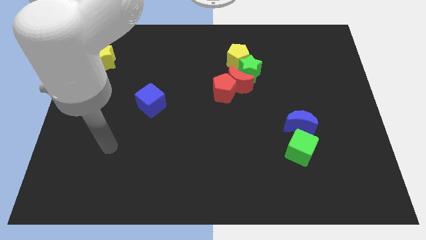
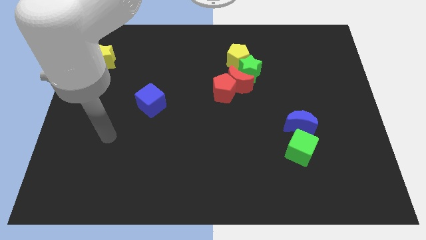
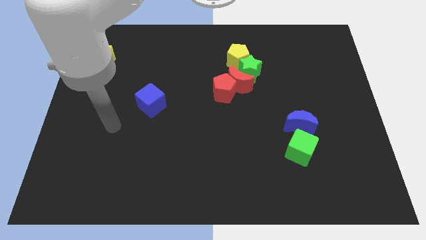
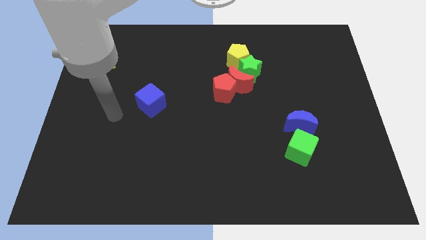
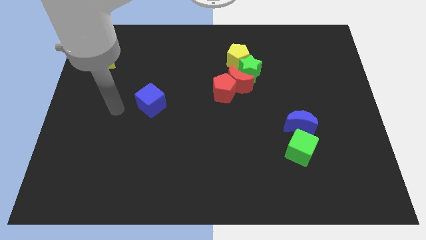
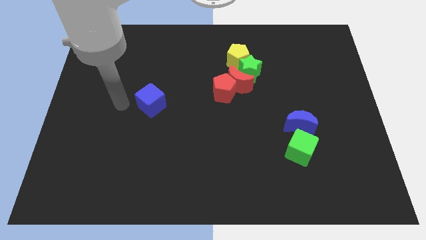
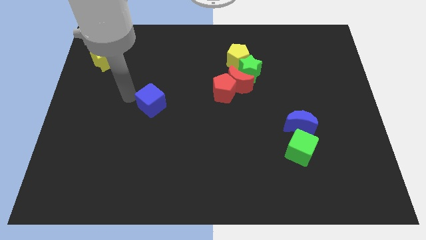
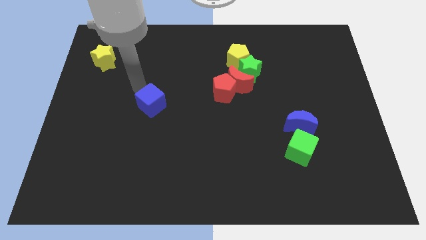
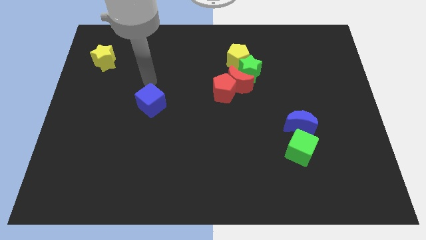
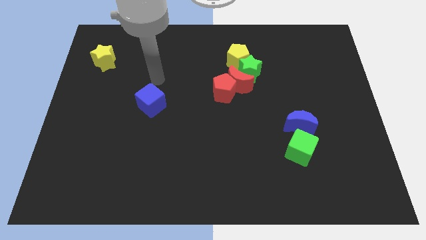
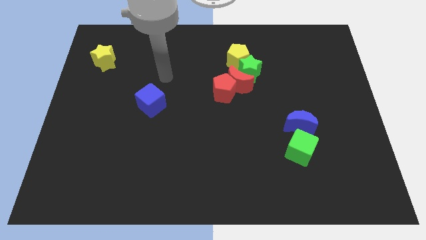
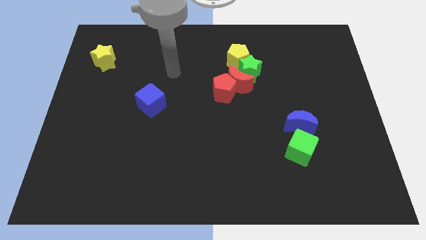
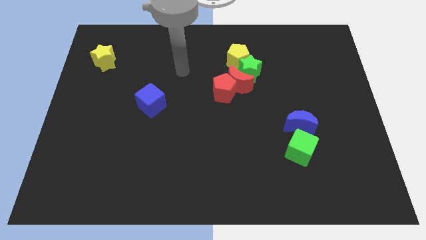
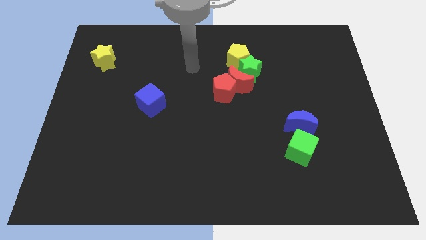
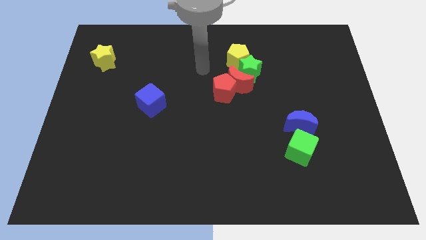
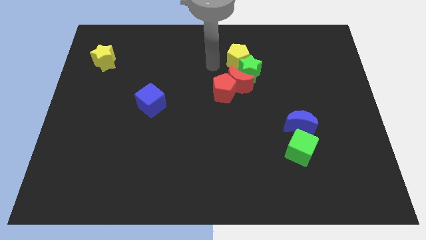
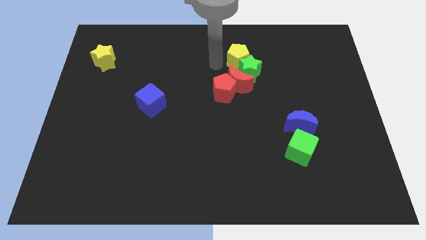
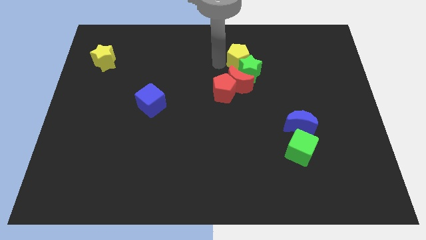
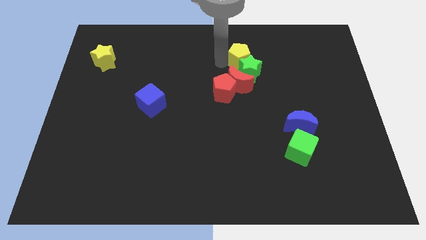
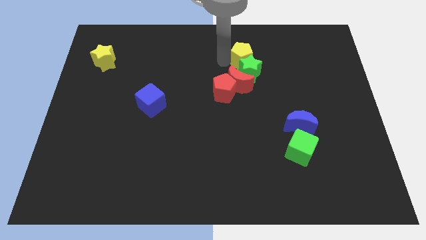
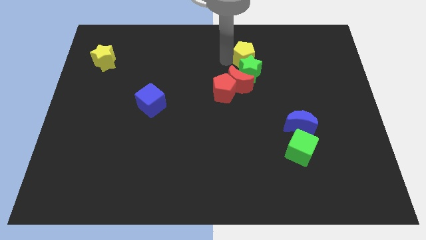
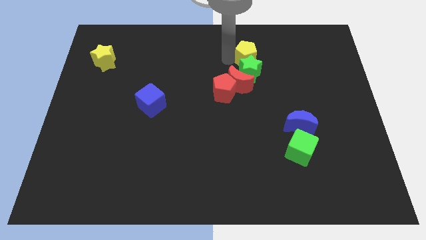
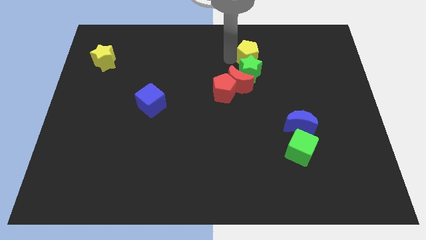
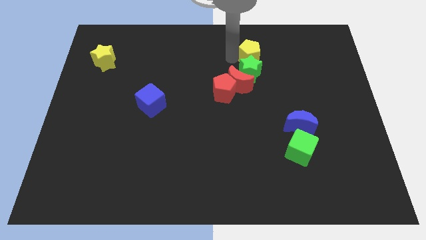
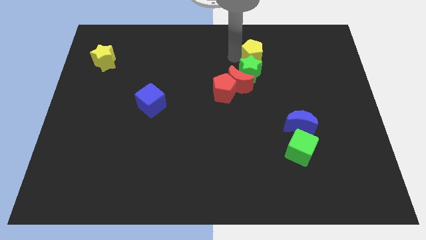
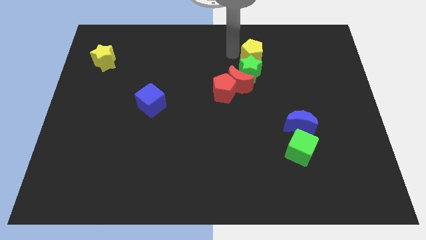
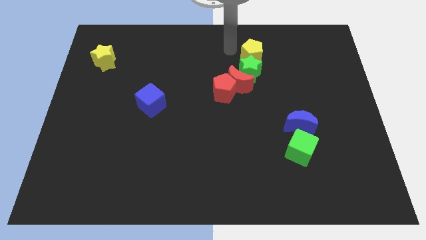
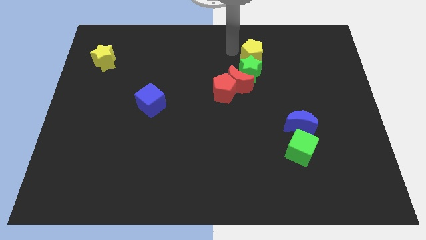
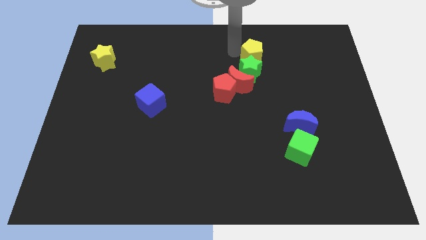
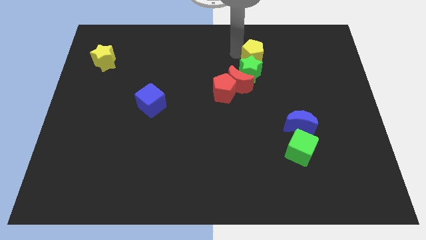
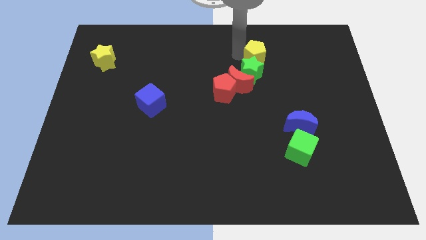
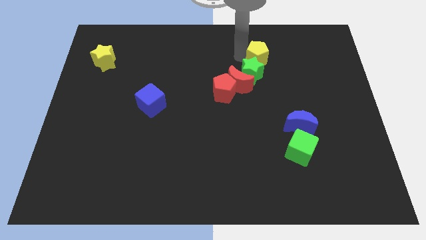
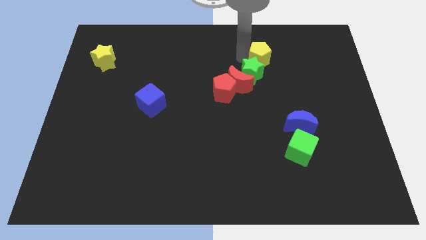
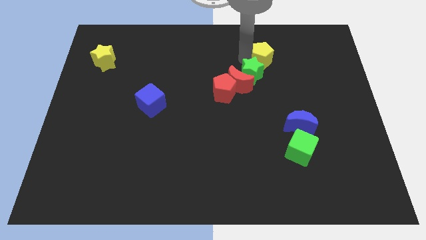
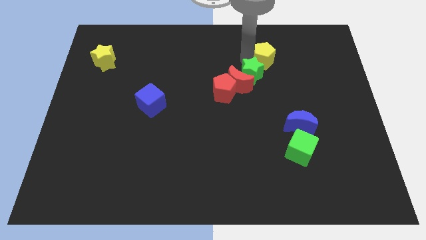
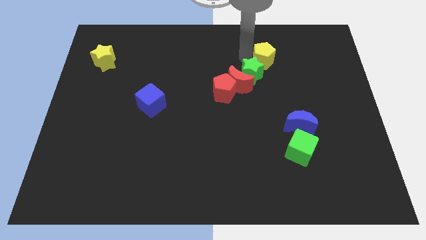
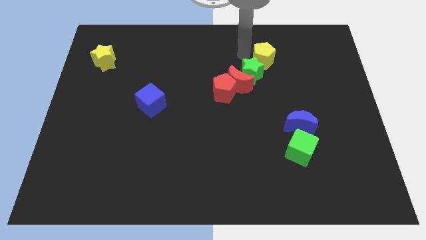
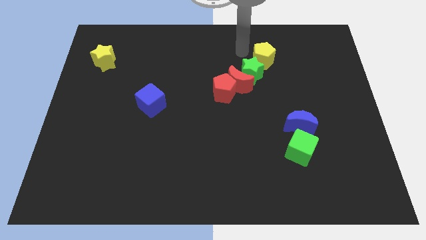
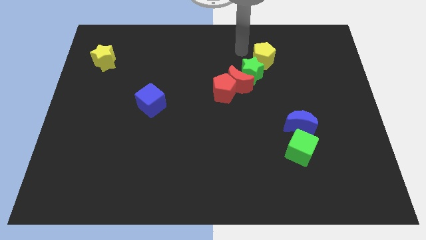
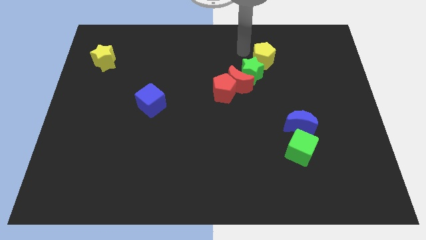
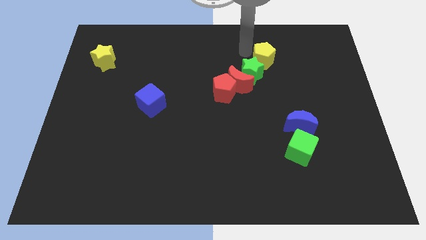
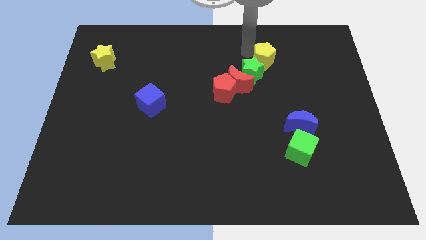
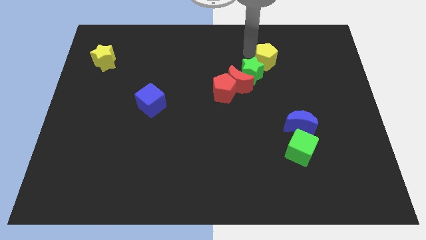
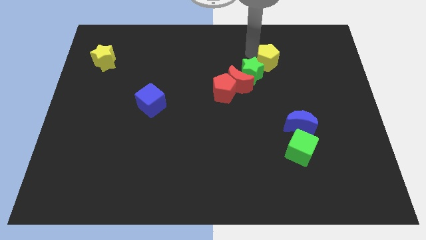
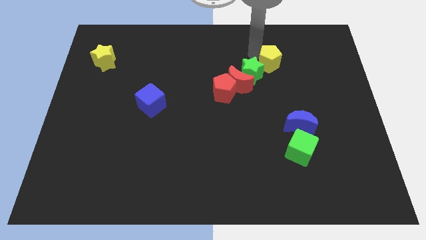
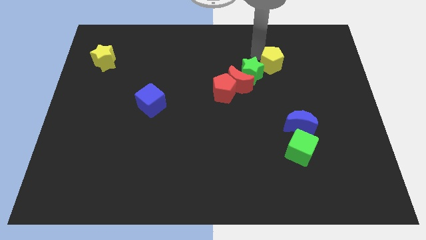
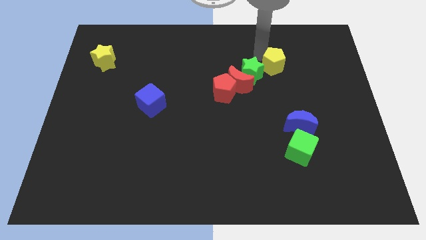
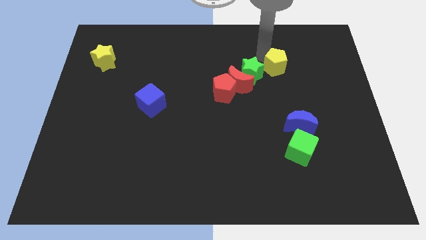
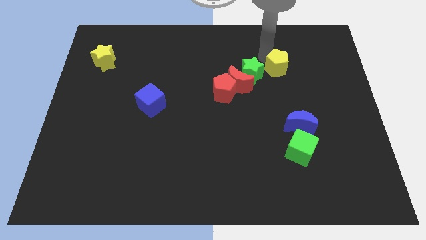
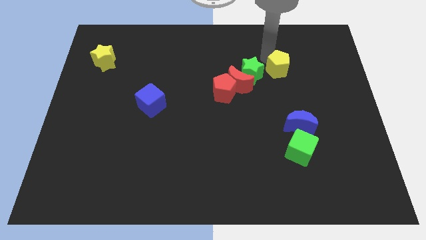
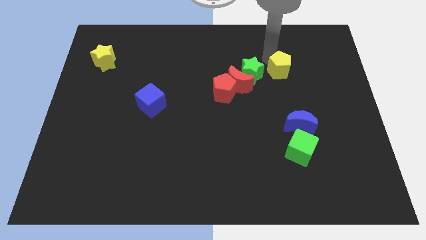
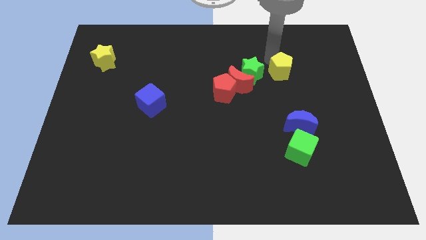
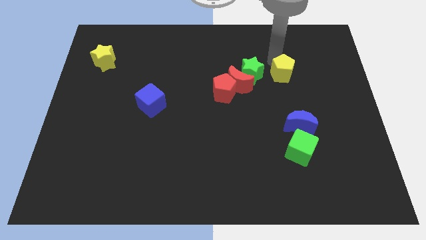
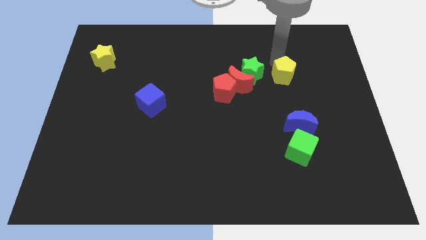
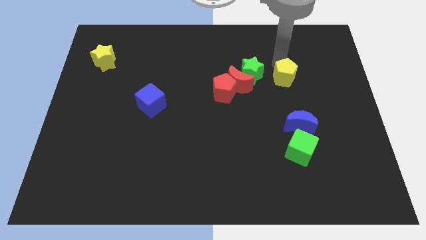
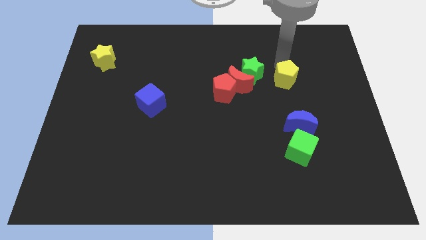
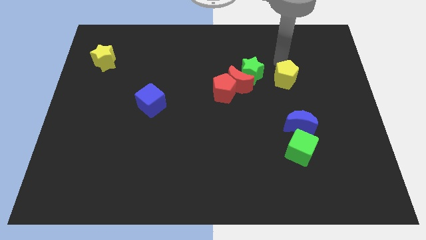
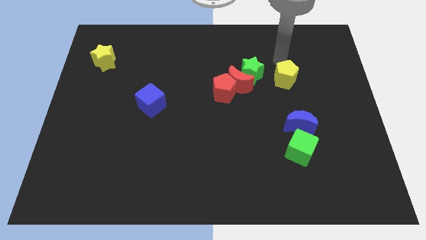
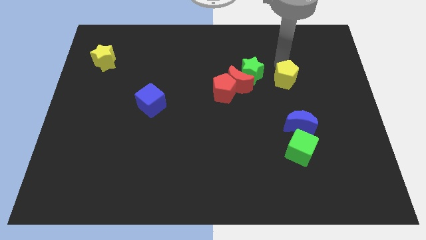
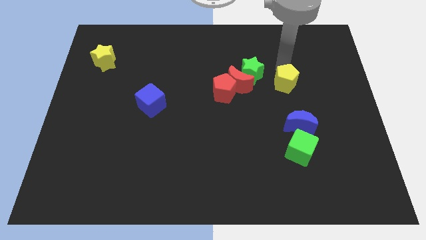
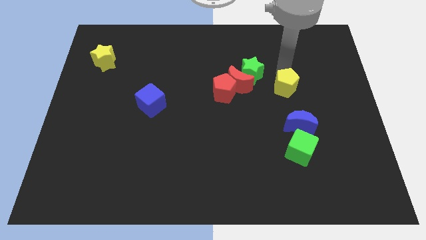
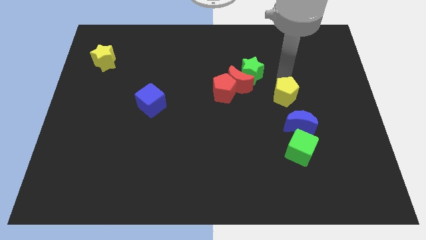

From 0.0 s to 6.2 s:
put the yellow pentagon to the top of the green cube

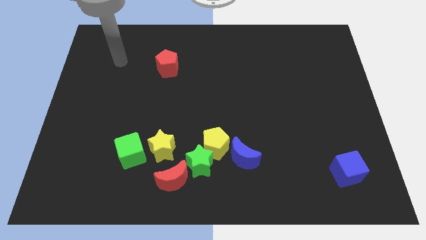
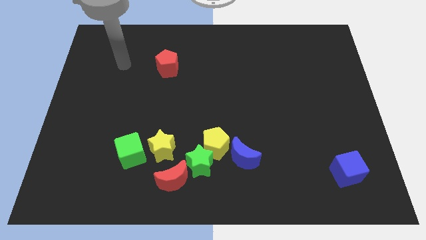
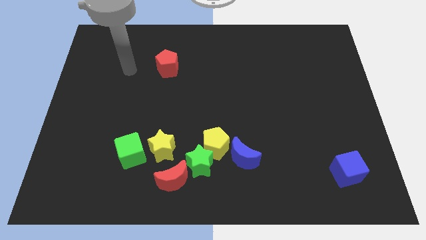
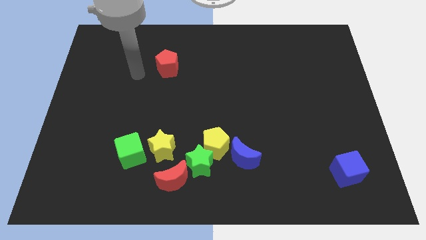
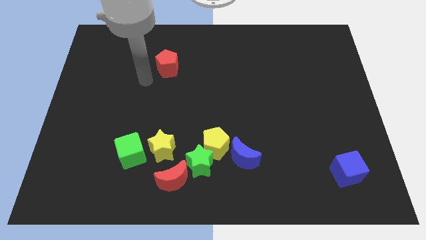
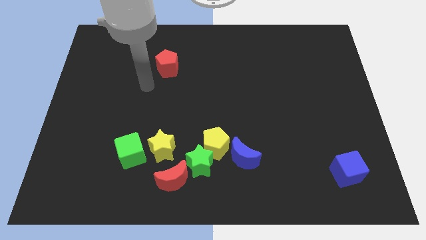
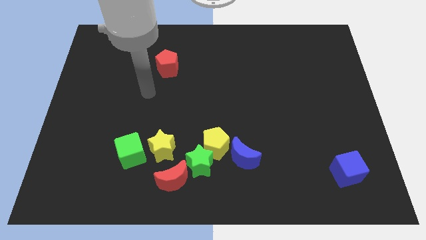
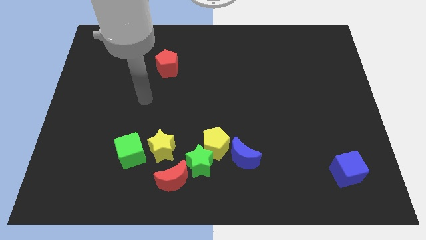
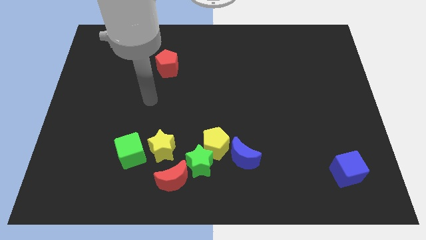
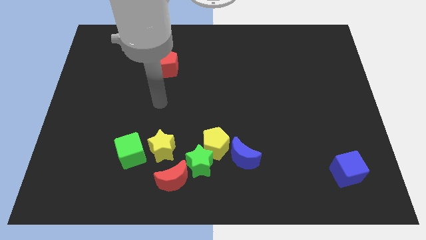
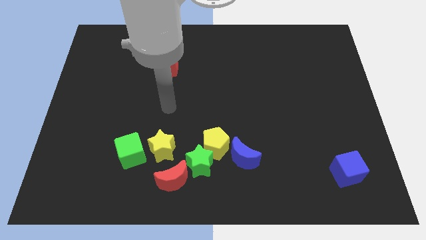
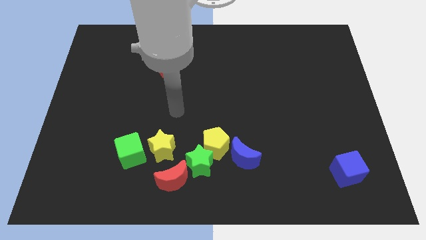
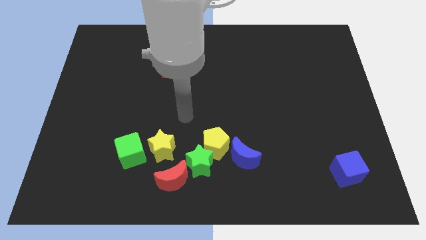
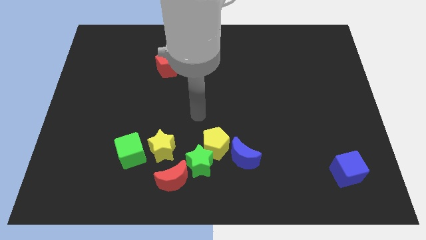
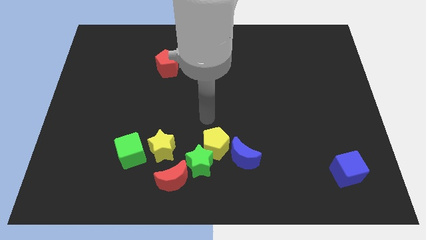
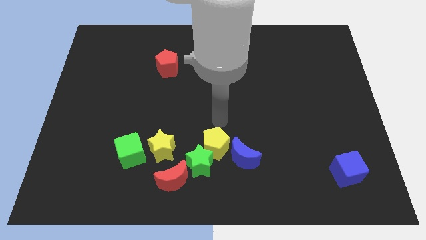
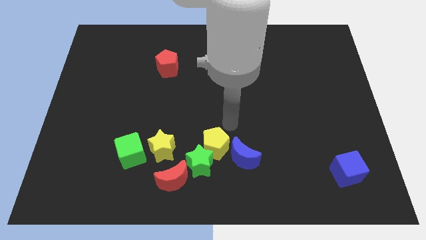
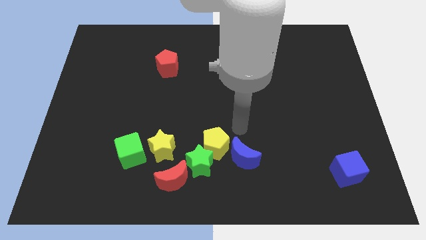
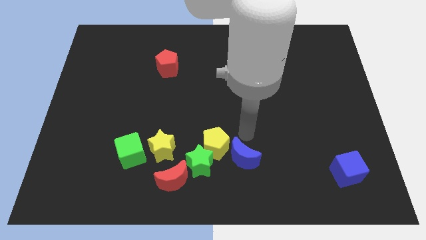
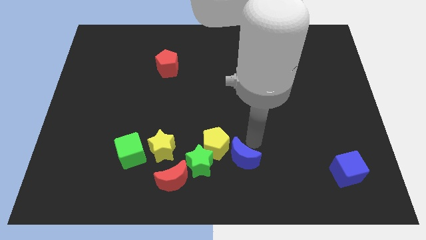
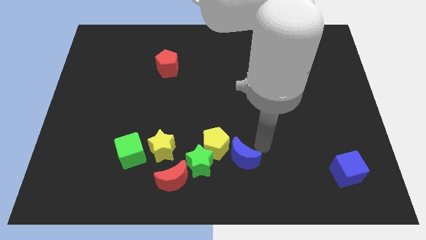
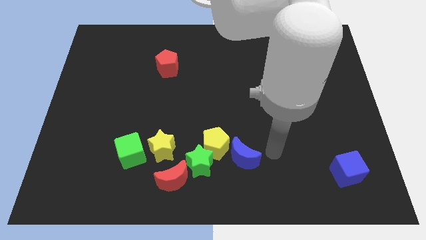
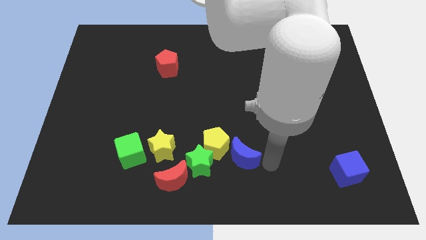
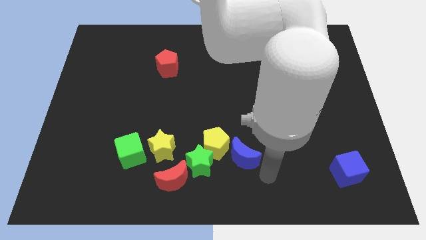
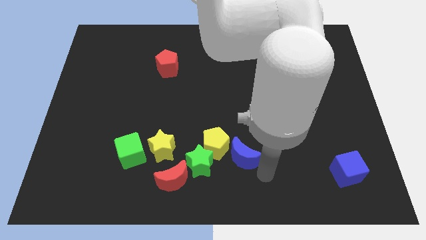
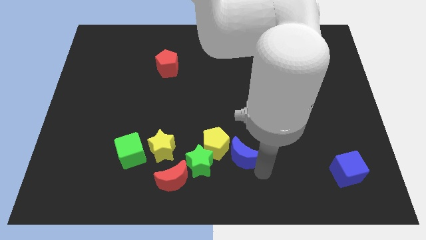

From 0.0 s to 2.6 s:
put the blue moon to the top right side of the green star
